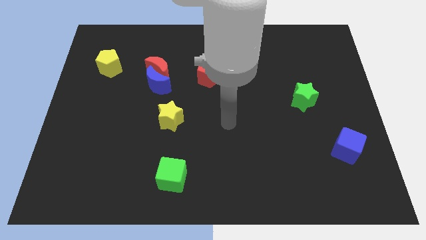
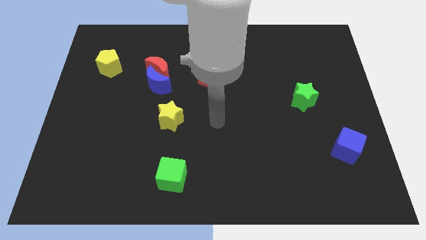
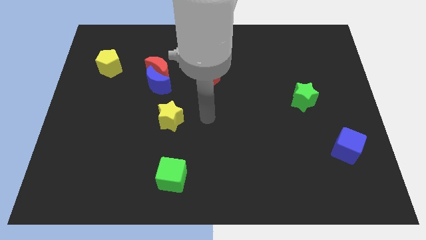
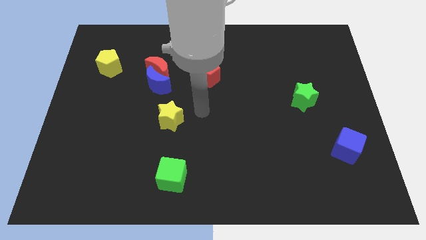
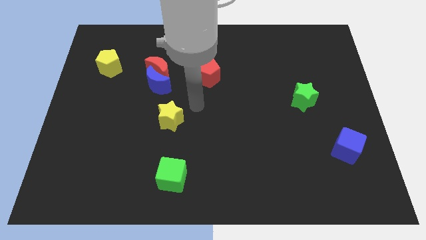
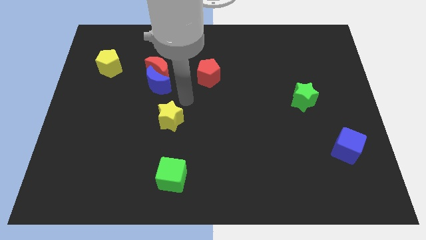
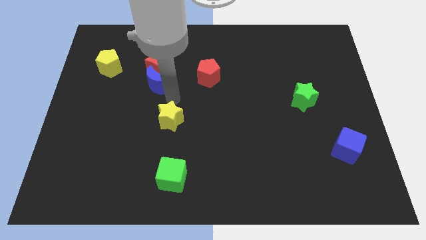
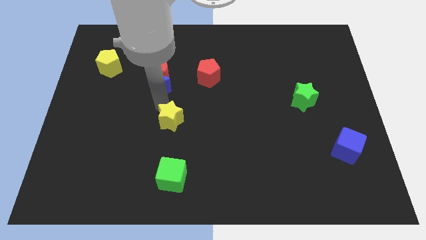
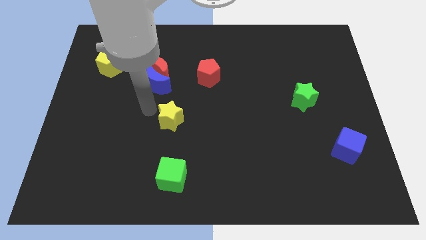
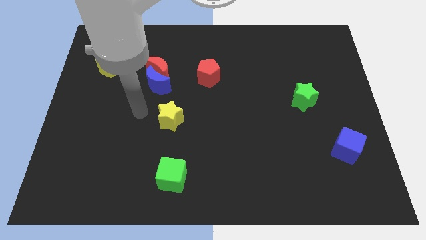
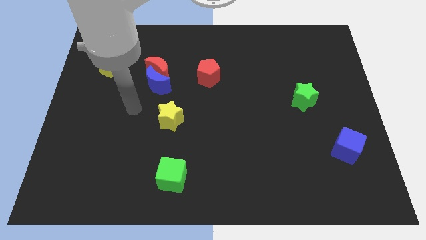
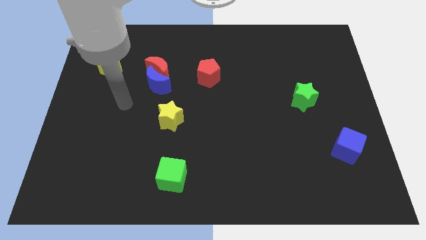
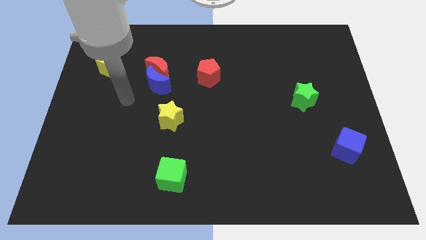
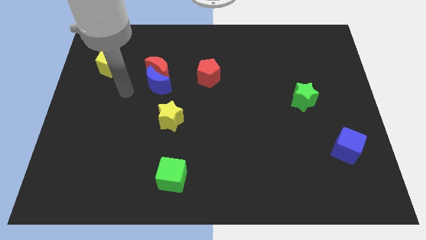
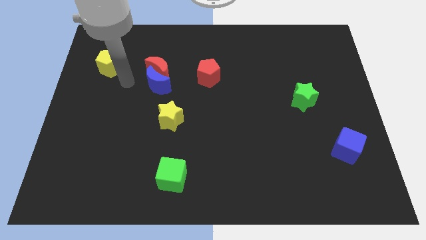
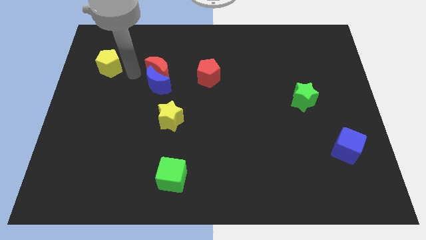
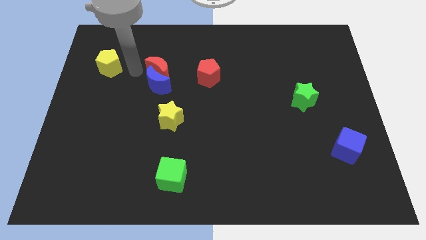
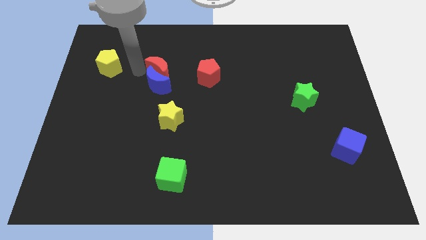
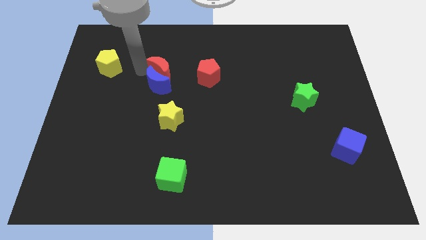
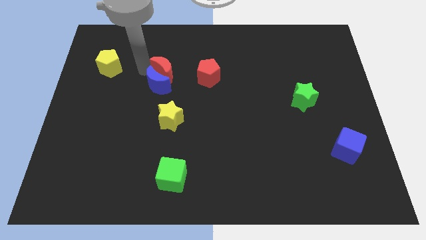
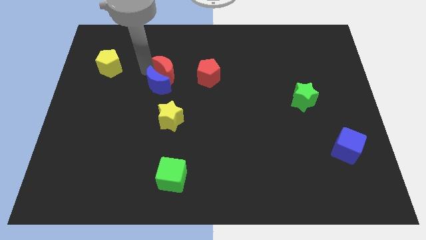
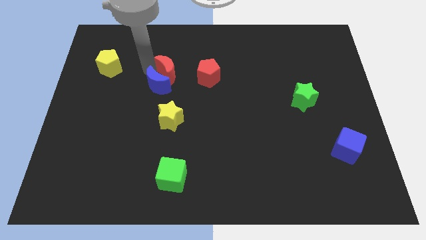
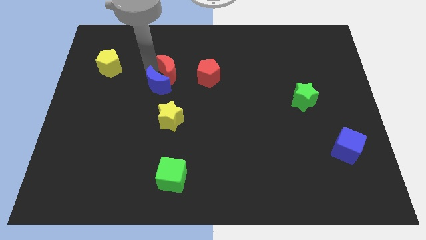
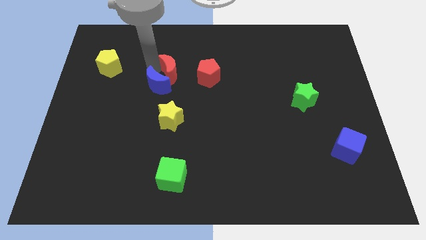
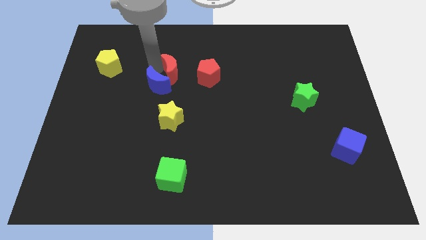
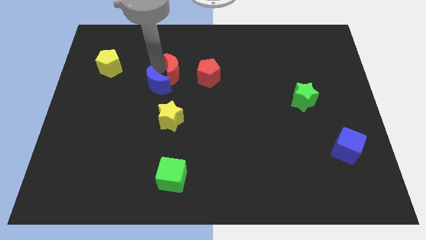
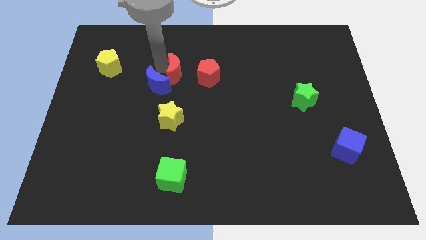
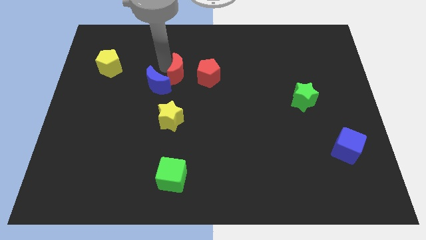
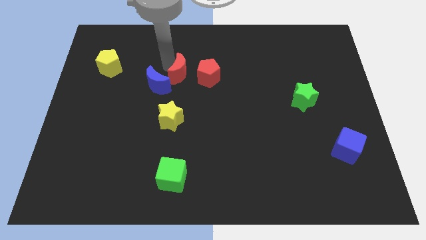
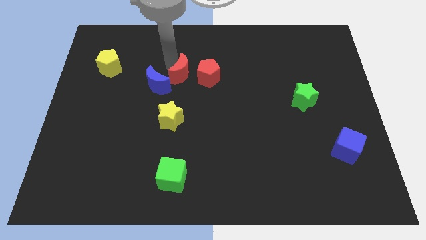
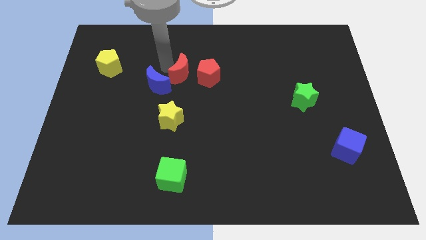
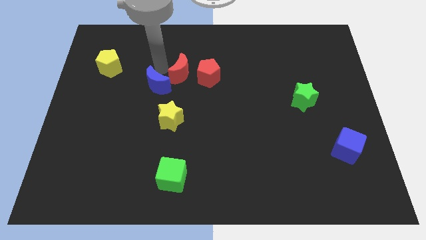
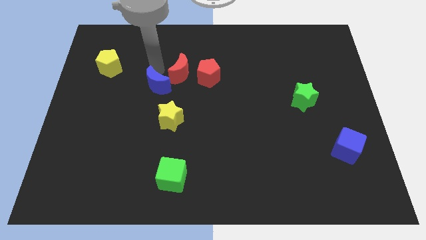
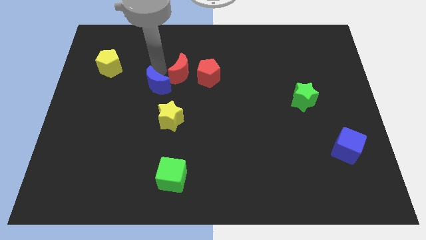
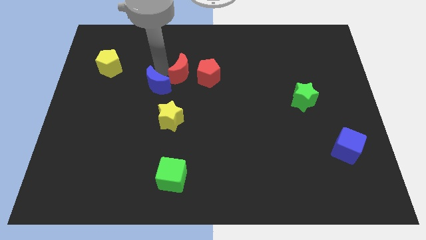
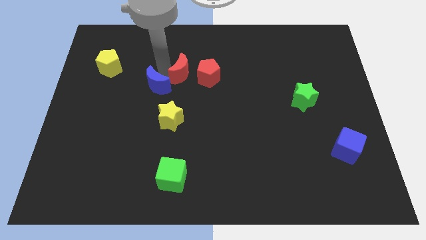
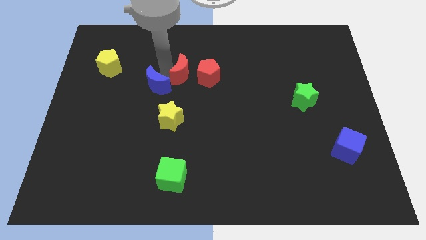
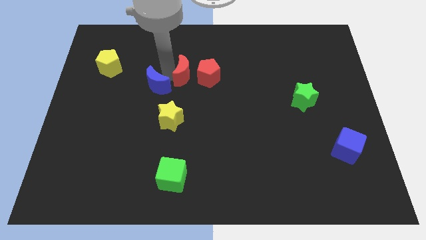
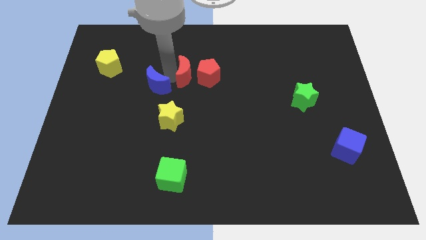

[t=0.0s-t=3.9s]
put the red moon close to the red pentagon

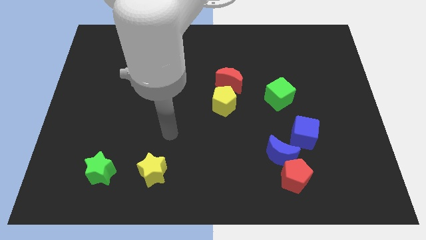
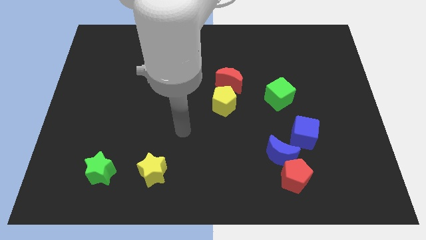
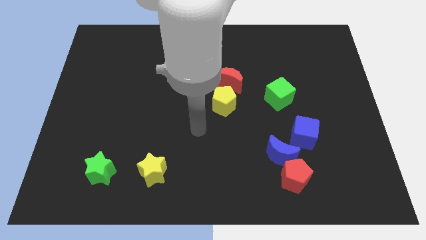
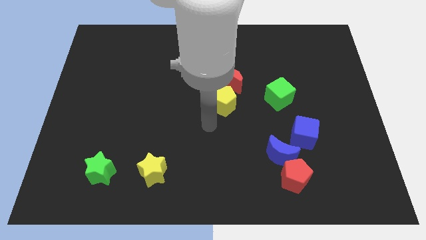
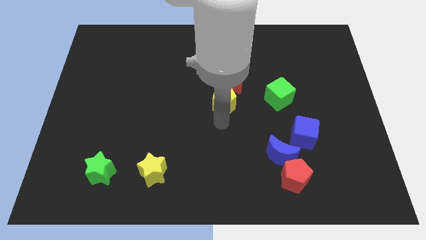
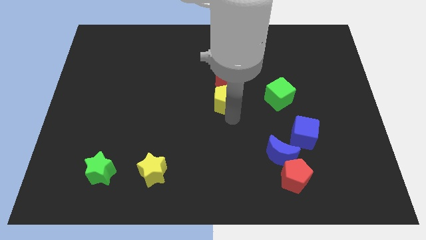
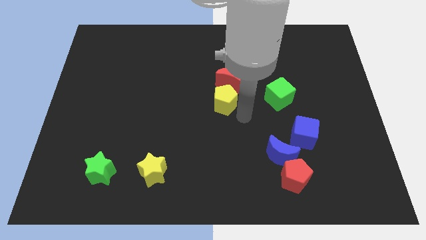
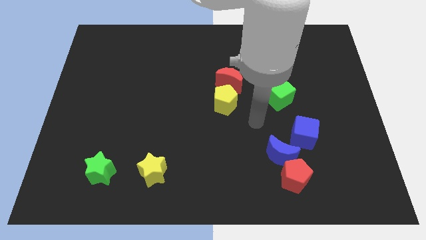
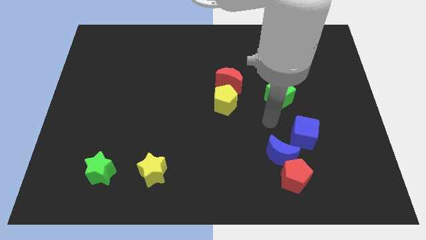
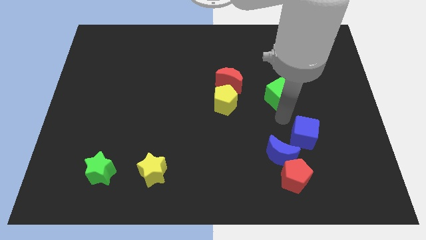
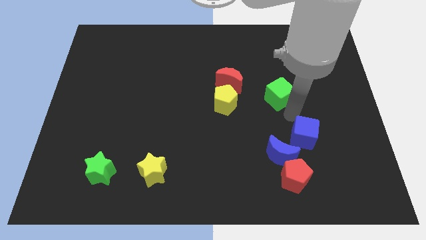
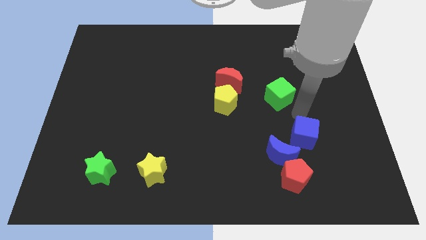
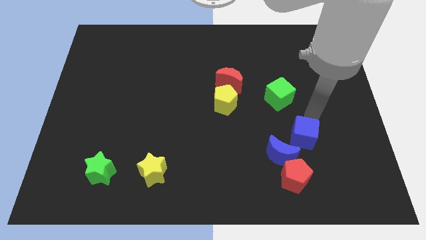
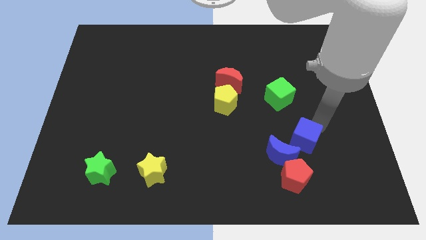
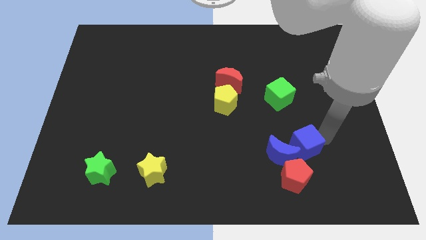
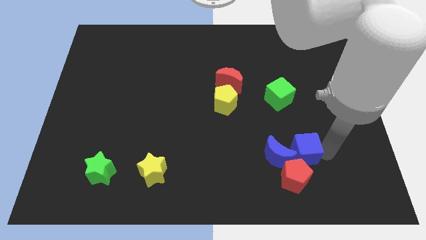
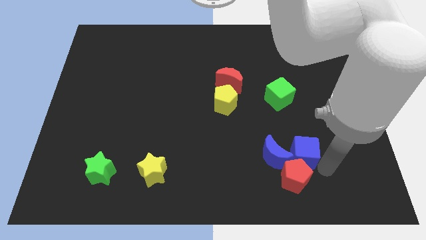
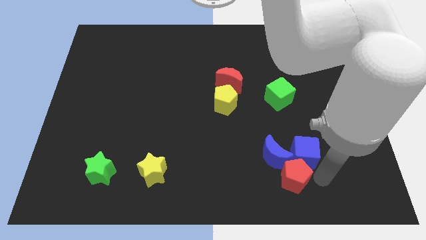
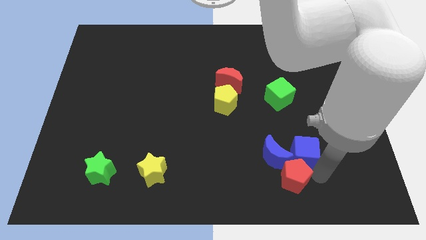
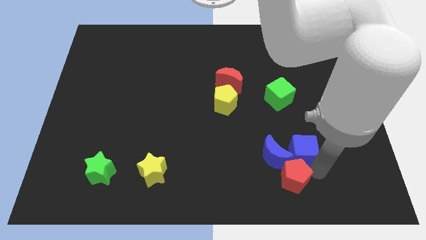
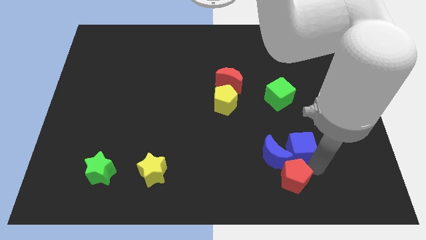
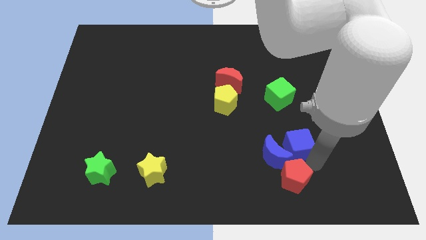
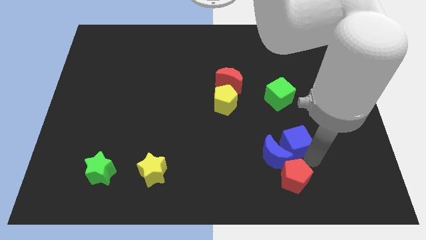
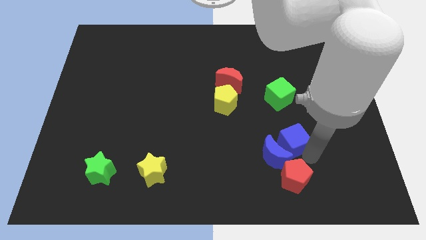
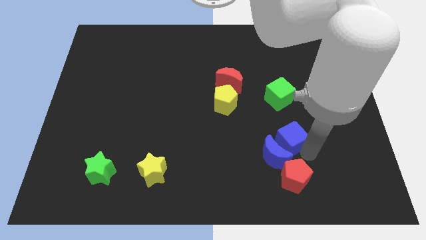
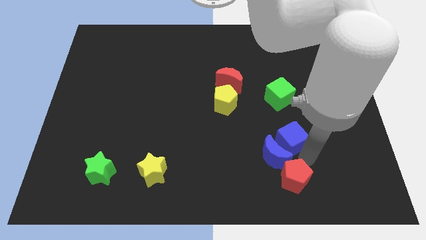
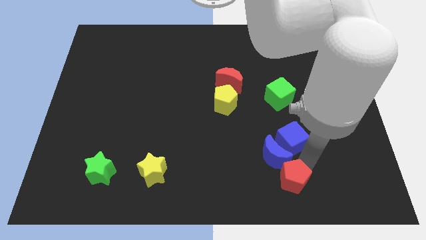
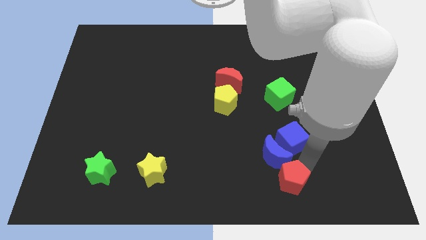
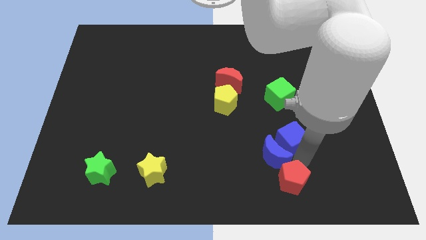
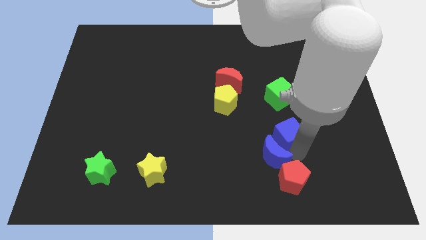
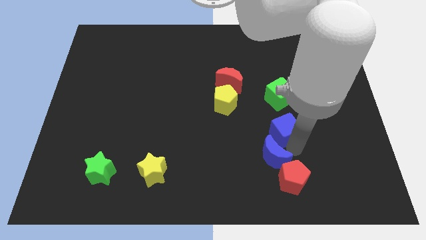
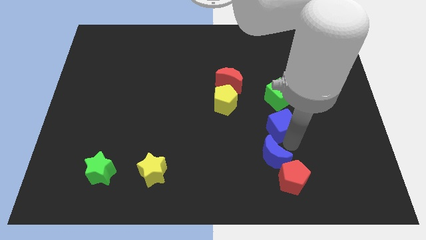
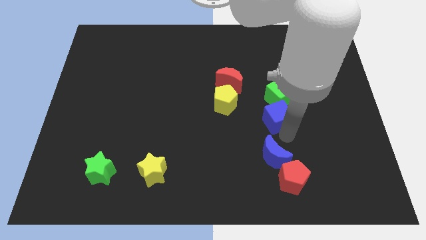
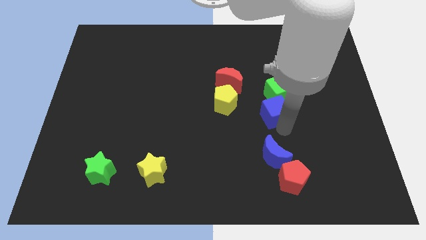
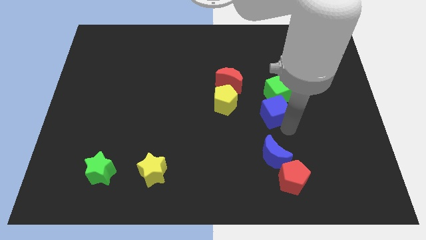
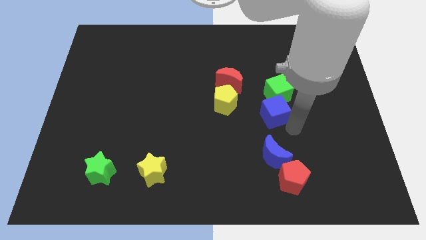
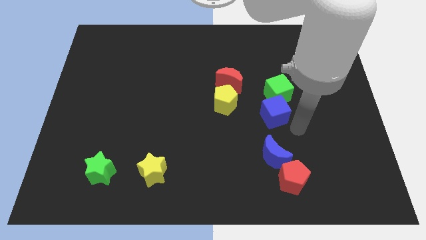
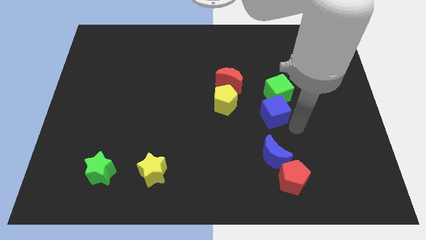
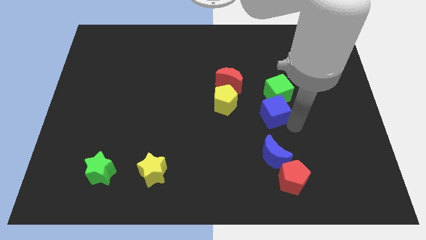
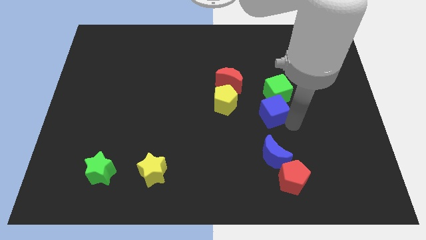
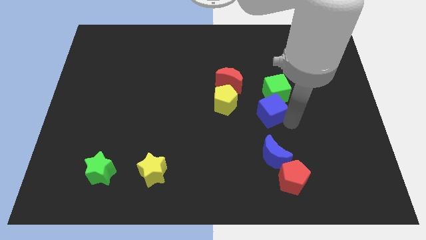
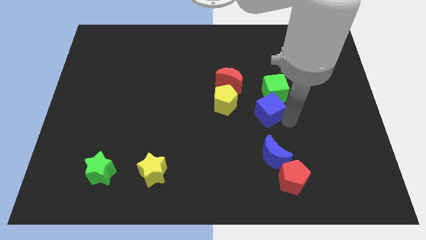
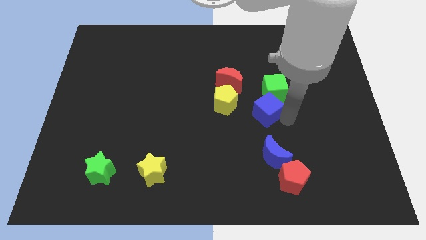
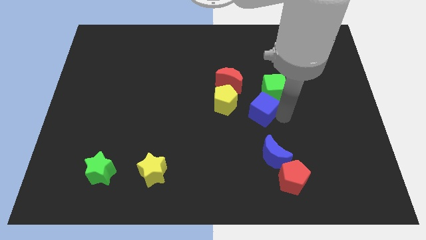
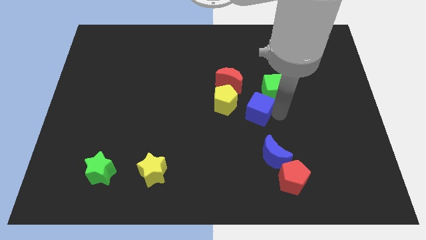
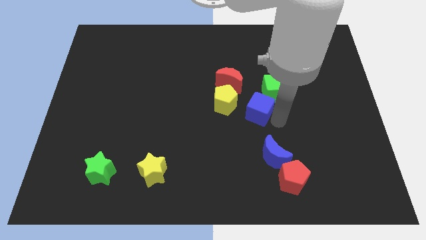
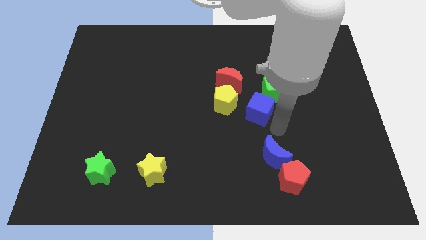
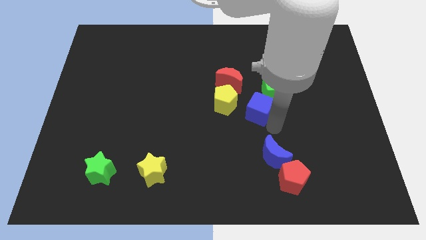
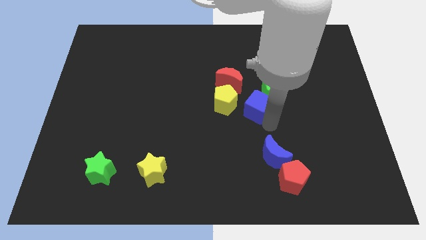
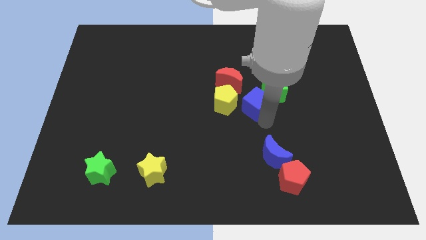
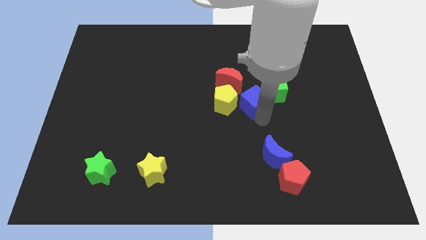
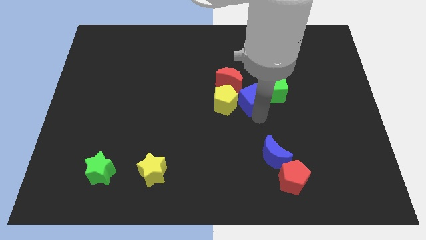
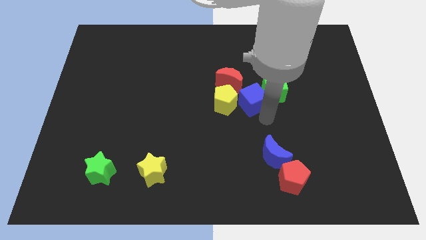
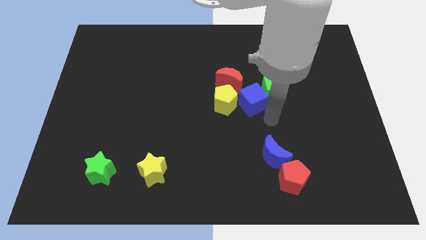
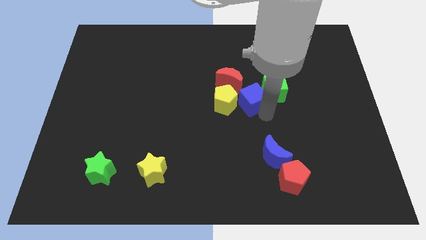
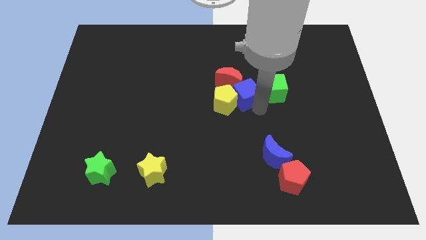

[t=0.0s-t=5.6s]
put the blue cube towards the red moon
